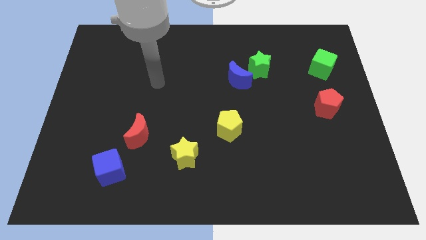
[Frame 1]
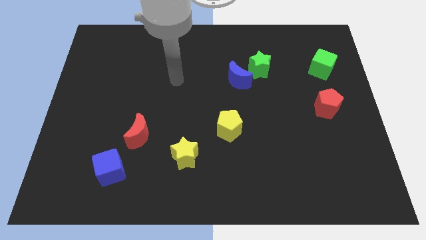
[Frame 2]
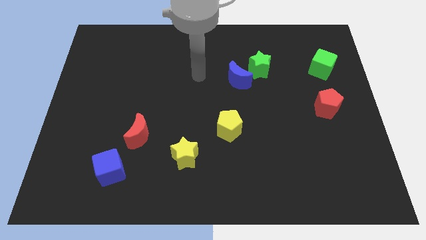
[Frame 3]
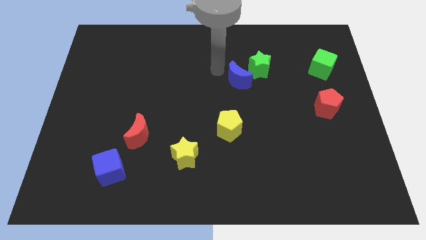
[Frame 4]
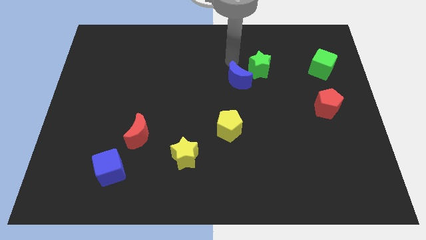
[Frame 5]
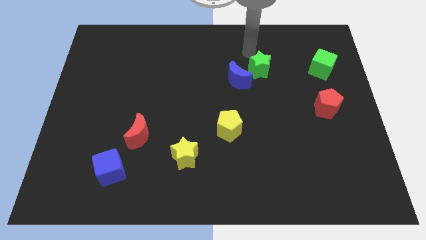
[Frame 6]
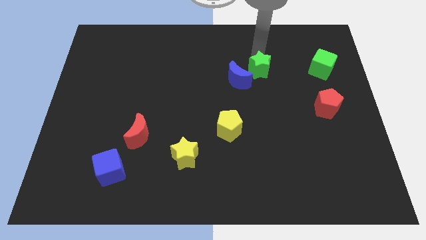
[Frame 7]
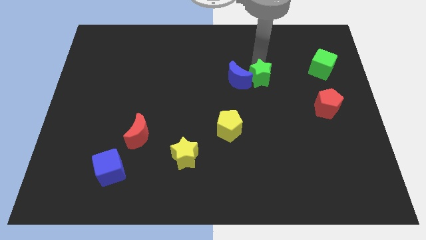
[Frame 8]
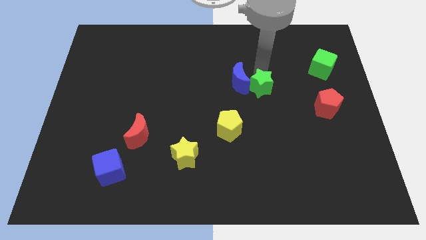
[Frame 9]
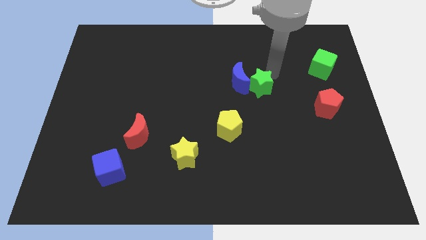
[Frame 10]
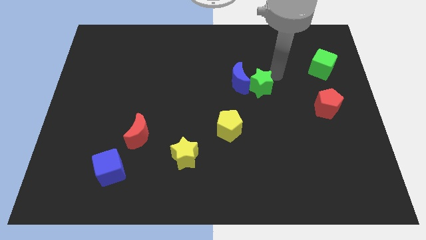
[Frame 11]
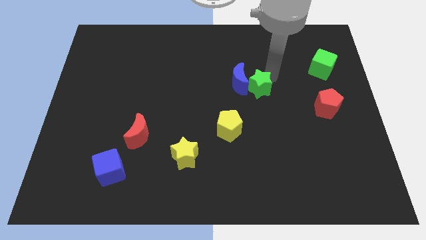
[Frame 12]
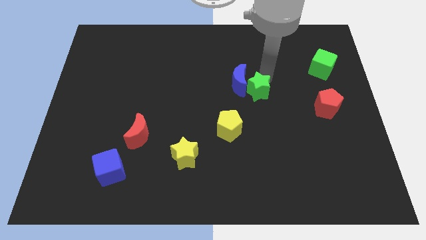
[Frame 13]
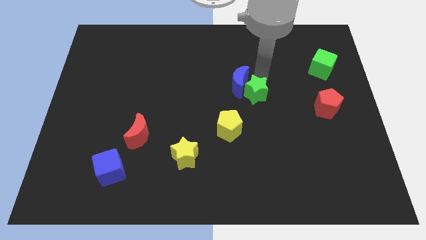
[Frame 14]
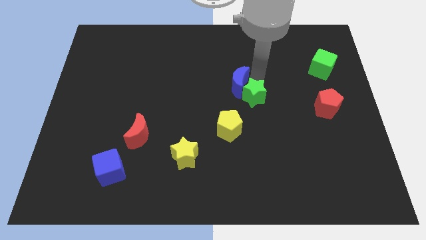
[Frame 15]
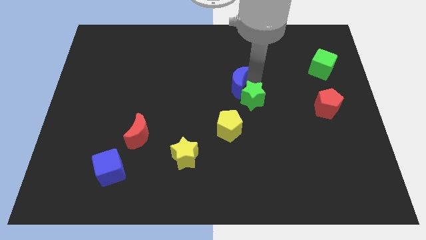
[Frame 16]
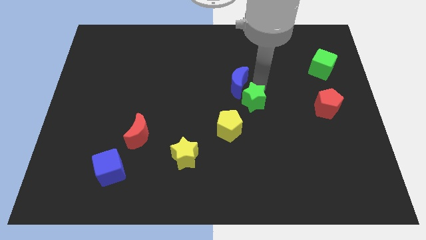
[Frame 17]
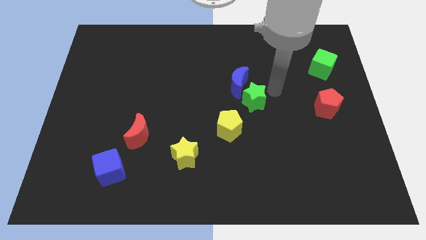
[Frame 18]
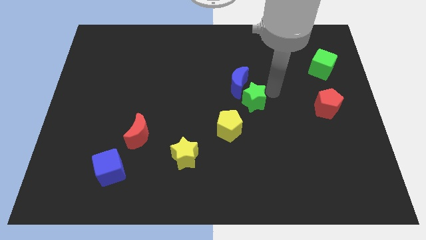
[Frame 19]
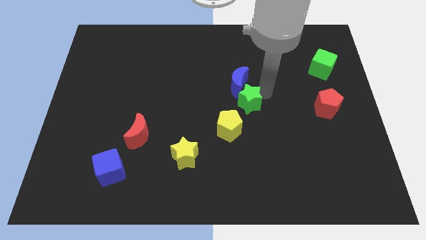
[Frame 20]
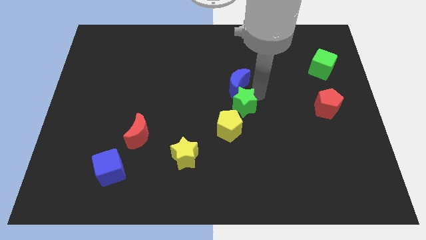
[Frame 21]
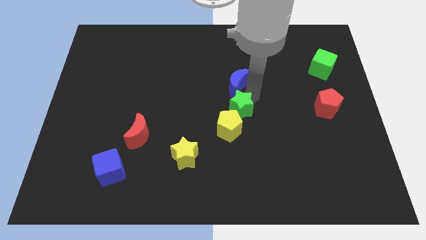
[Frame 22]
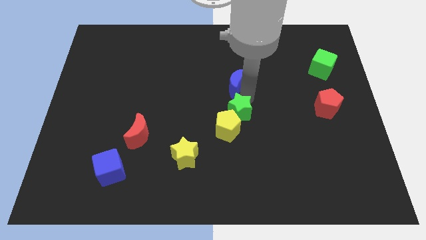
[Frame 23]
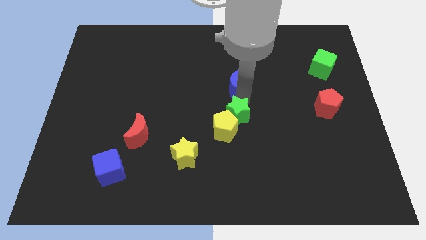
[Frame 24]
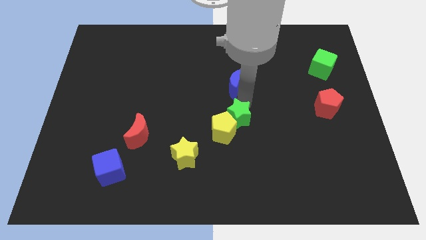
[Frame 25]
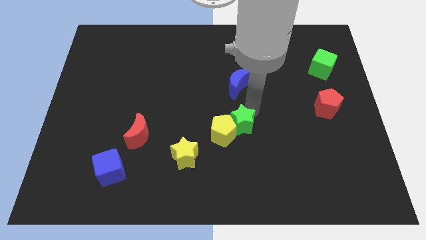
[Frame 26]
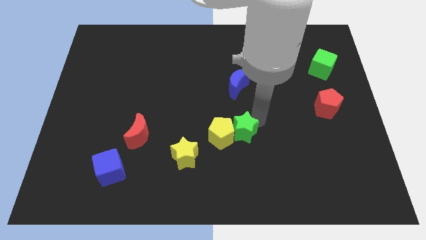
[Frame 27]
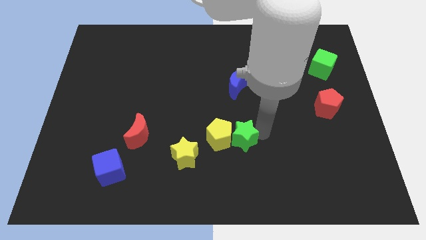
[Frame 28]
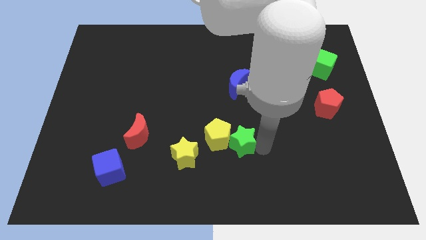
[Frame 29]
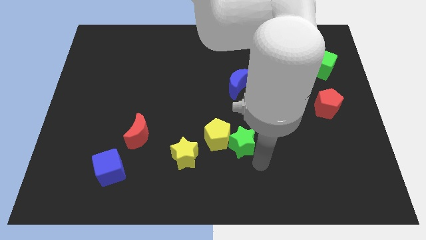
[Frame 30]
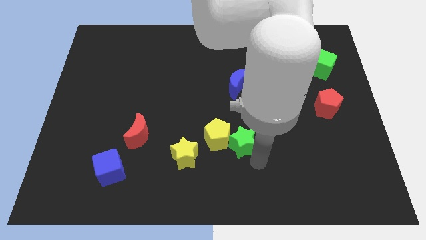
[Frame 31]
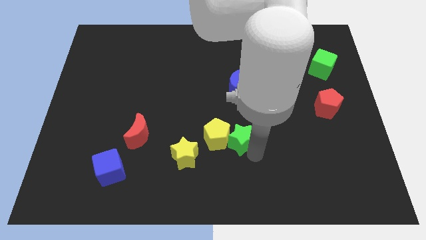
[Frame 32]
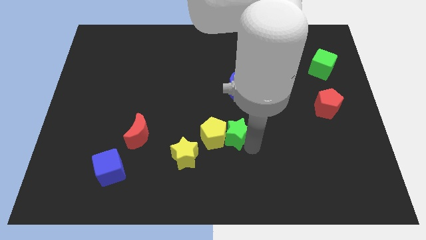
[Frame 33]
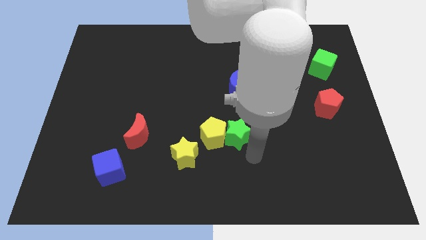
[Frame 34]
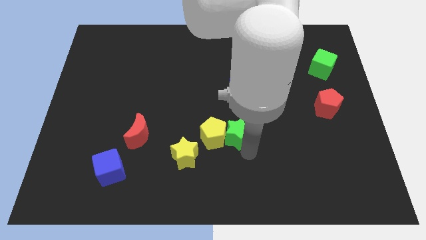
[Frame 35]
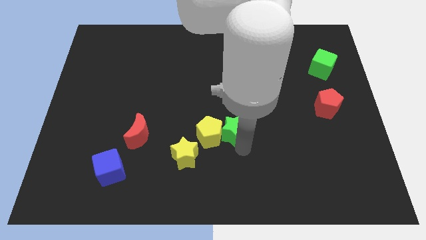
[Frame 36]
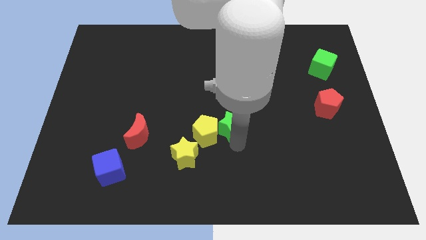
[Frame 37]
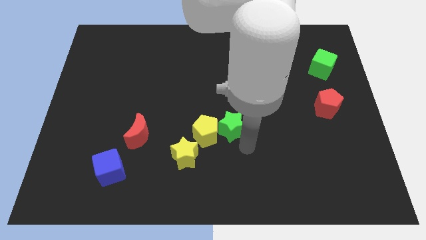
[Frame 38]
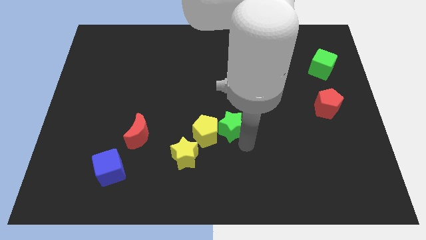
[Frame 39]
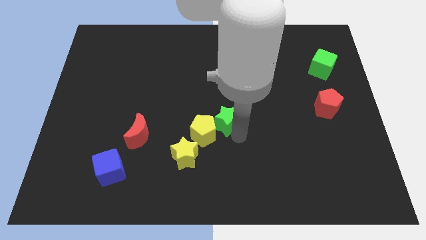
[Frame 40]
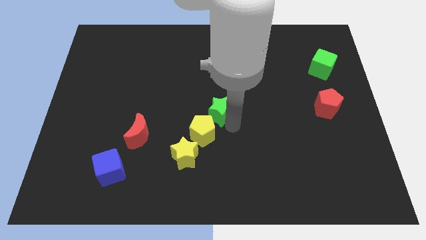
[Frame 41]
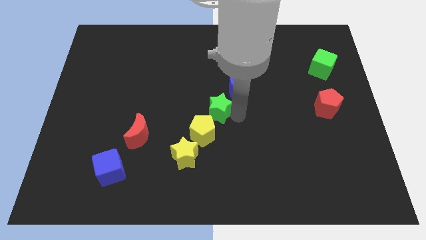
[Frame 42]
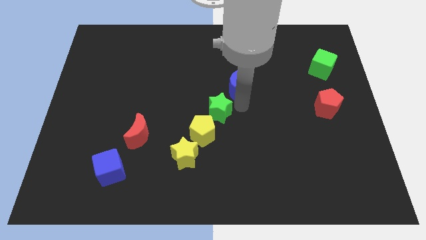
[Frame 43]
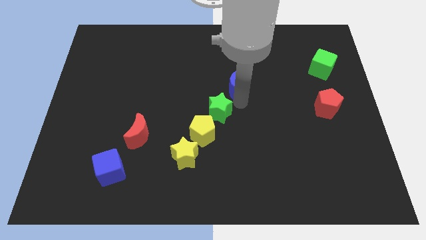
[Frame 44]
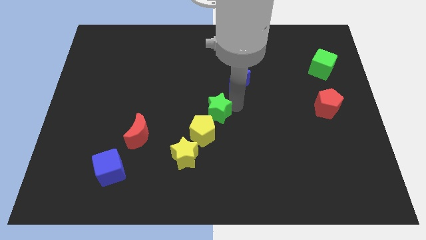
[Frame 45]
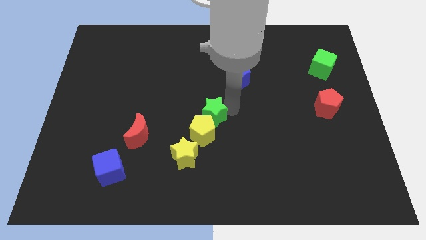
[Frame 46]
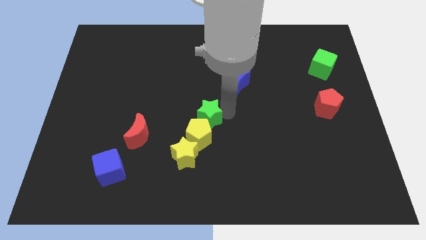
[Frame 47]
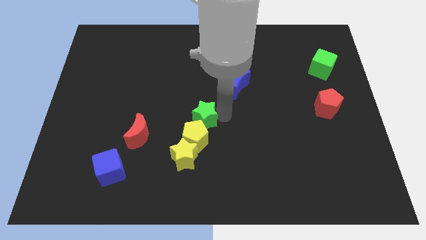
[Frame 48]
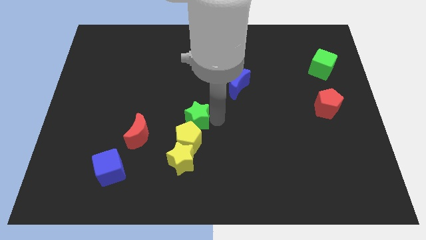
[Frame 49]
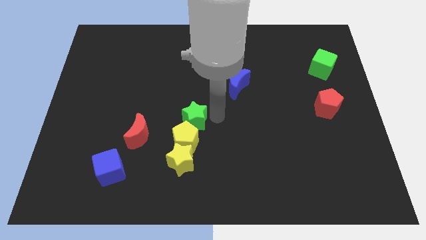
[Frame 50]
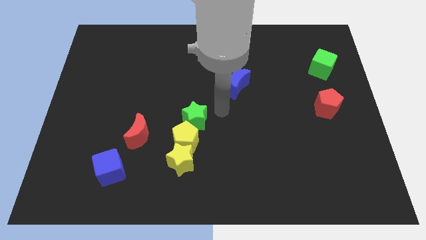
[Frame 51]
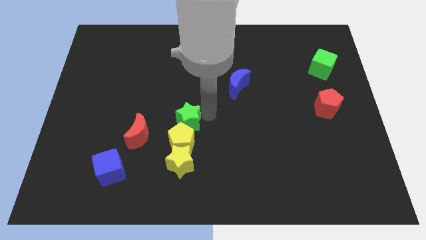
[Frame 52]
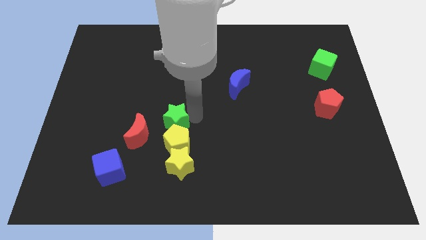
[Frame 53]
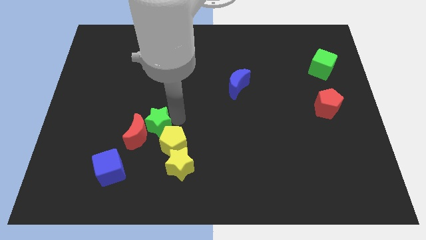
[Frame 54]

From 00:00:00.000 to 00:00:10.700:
slide the green star to the red moon

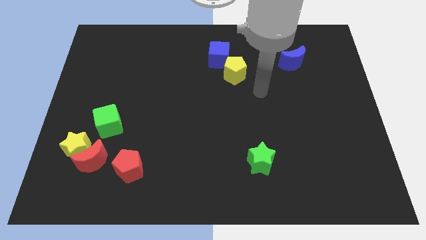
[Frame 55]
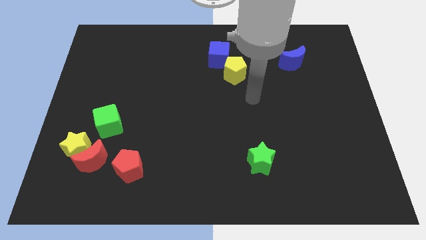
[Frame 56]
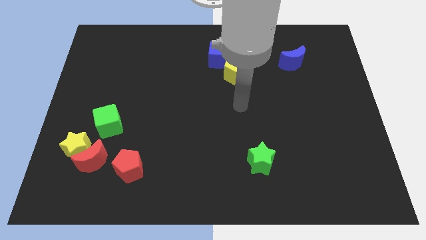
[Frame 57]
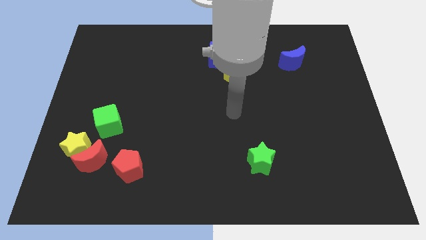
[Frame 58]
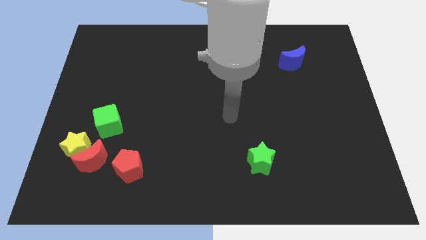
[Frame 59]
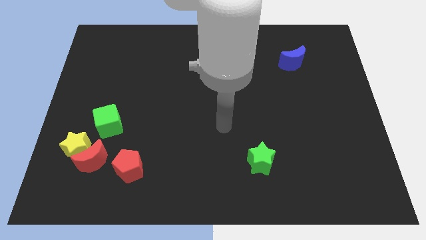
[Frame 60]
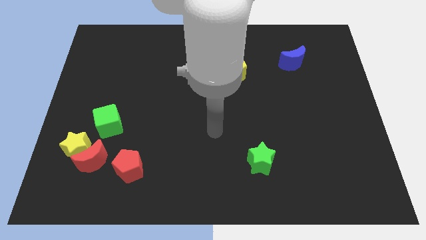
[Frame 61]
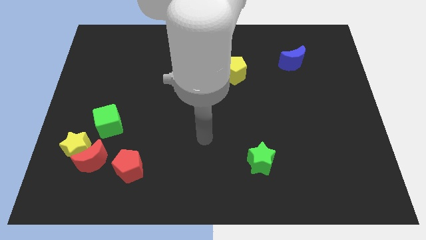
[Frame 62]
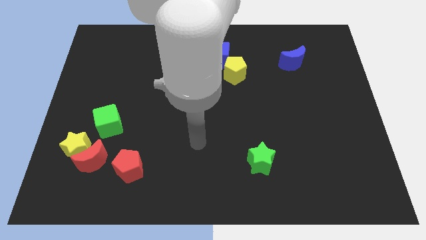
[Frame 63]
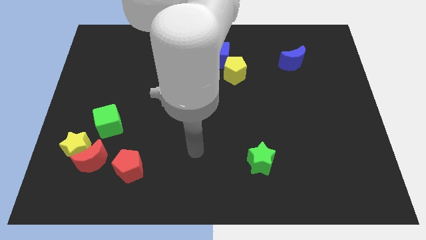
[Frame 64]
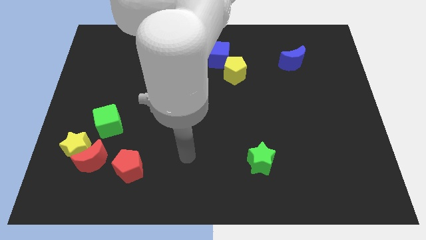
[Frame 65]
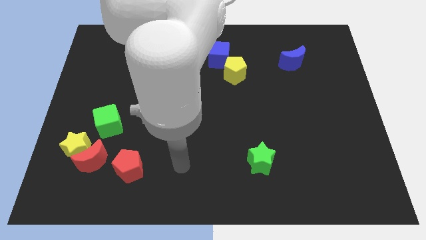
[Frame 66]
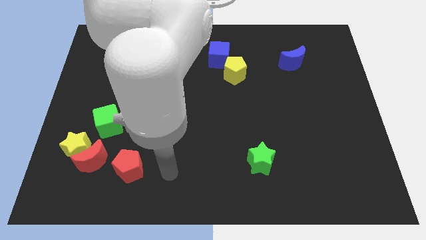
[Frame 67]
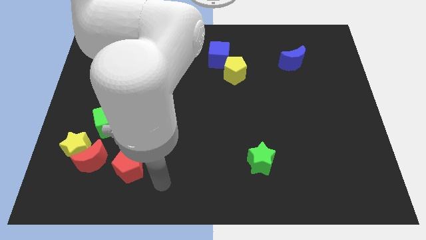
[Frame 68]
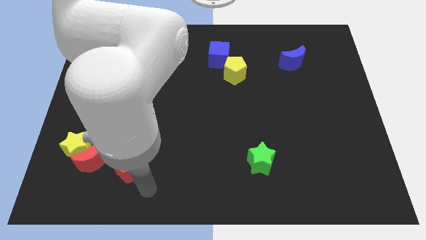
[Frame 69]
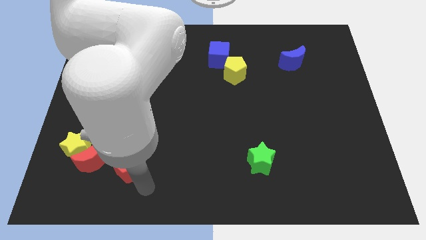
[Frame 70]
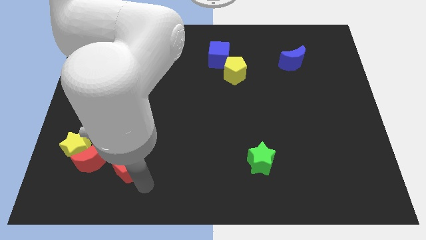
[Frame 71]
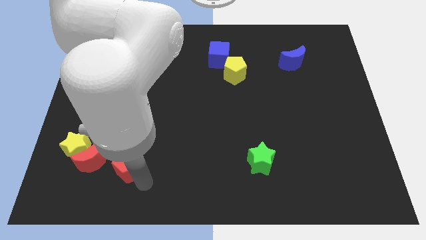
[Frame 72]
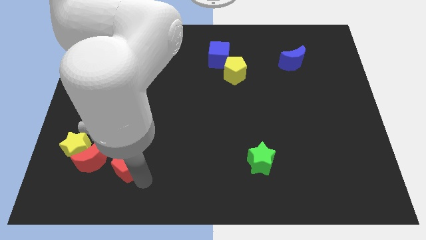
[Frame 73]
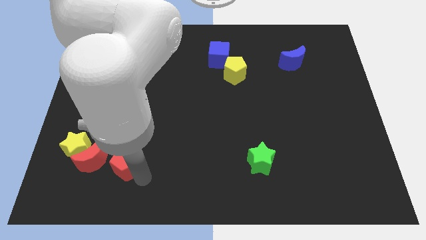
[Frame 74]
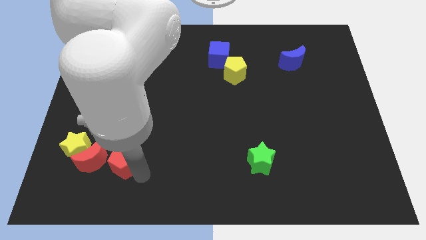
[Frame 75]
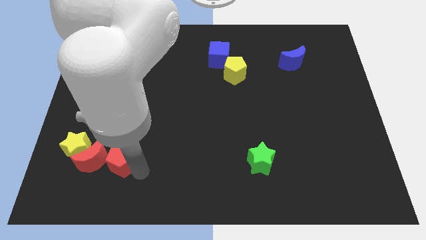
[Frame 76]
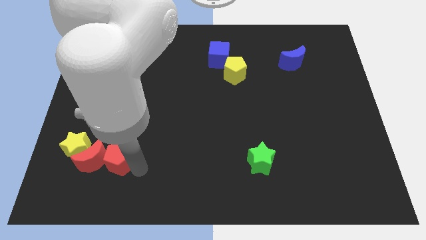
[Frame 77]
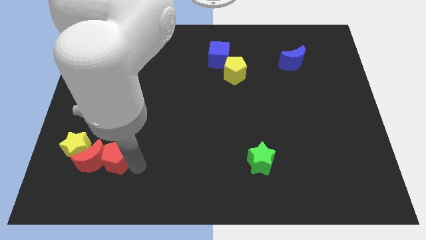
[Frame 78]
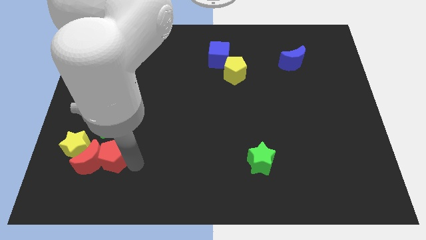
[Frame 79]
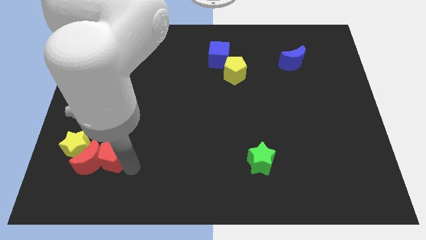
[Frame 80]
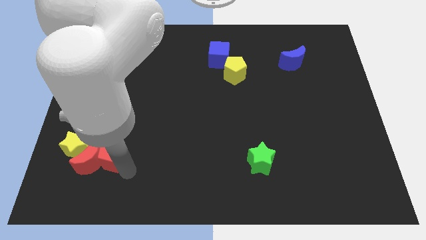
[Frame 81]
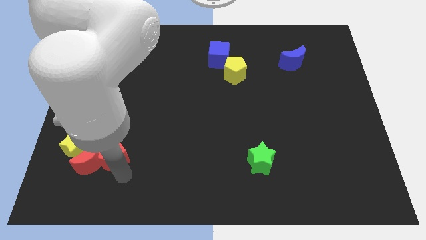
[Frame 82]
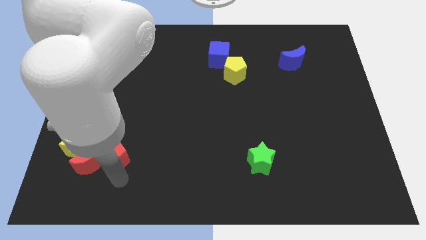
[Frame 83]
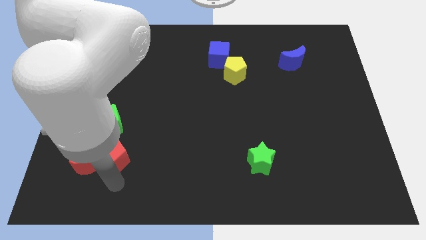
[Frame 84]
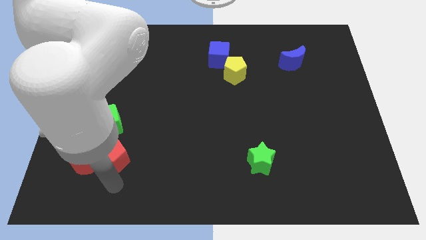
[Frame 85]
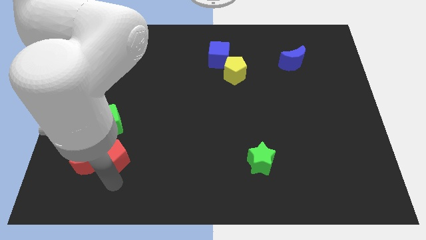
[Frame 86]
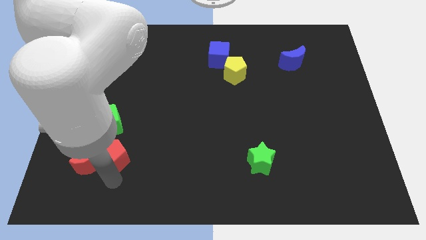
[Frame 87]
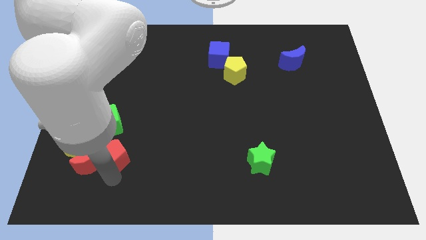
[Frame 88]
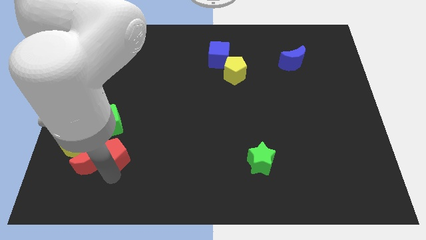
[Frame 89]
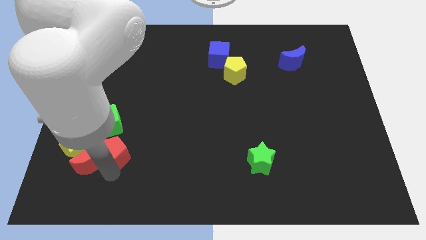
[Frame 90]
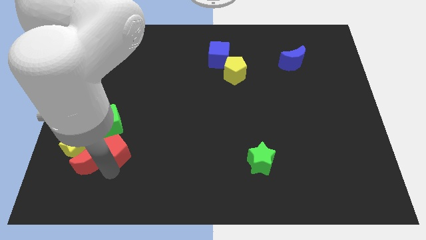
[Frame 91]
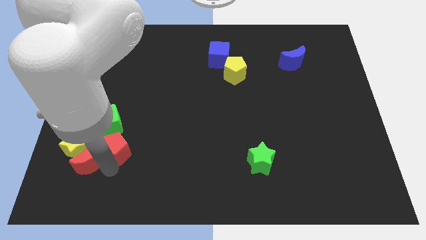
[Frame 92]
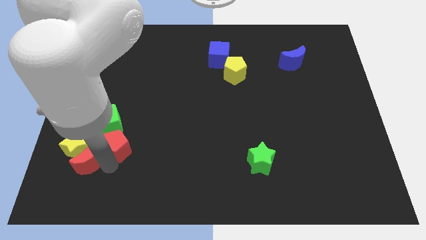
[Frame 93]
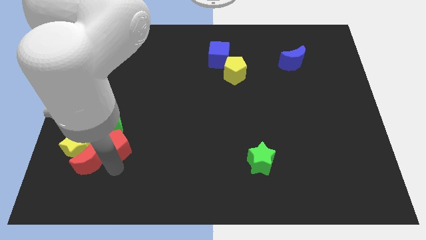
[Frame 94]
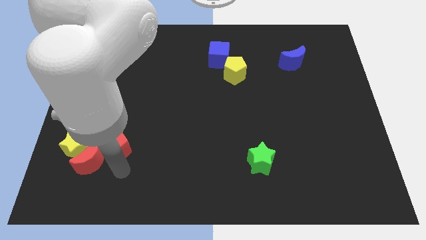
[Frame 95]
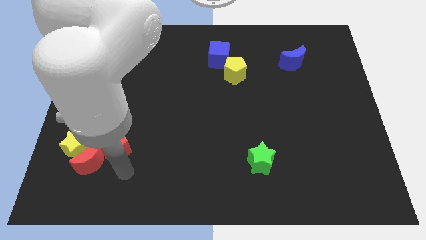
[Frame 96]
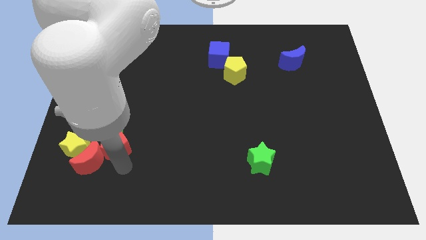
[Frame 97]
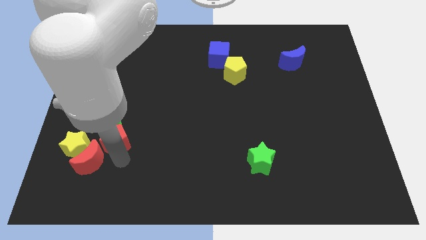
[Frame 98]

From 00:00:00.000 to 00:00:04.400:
move the red pentagon towards the green cube
